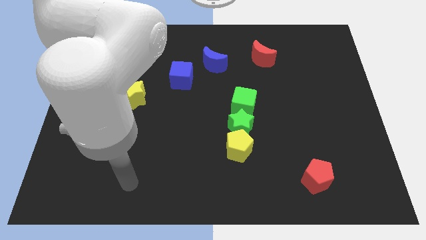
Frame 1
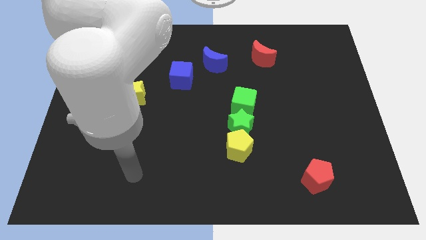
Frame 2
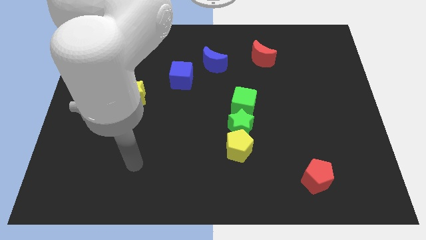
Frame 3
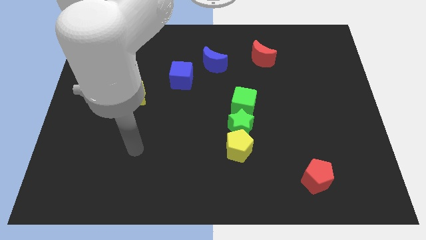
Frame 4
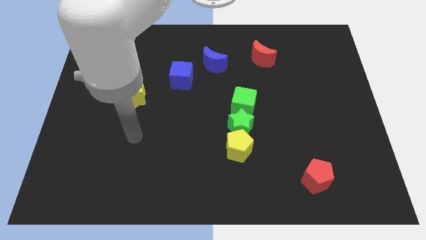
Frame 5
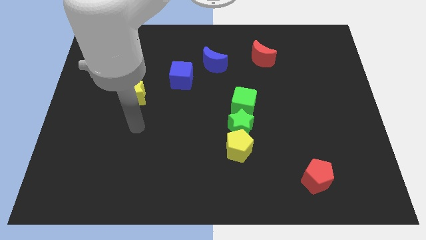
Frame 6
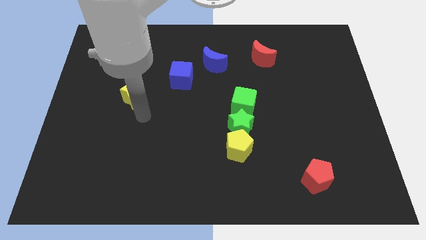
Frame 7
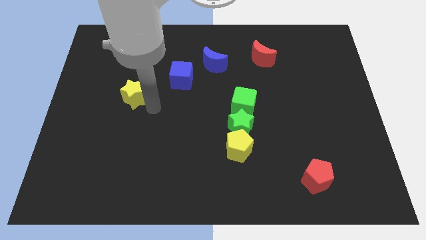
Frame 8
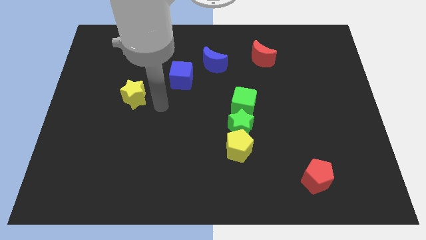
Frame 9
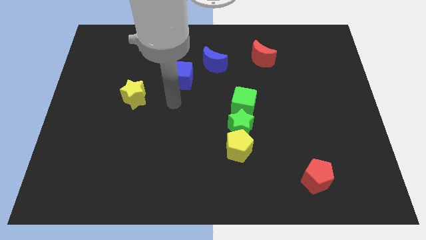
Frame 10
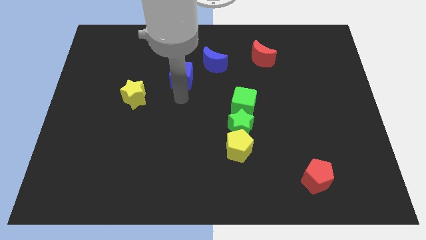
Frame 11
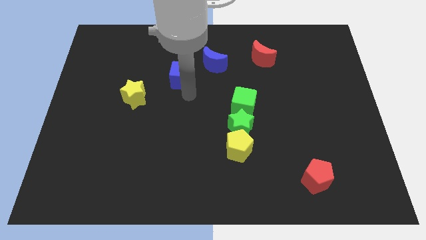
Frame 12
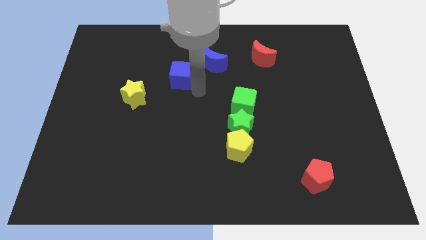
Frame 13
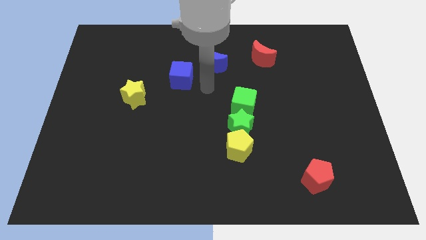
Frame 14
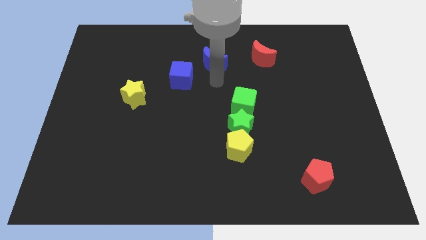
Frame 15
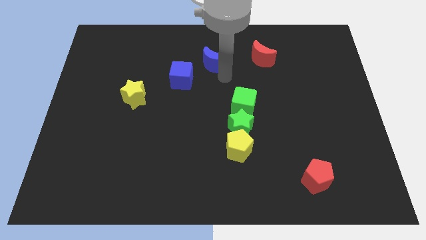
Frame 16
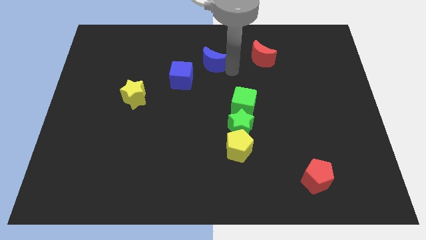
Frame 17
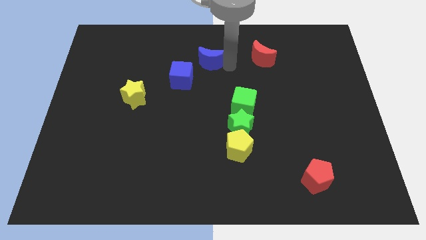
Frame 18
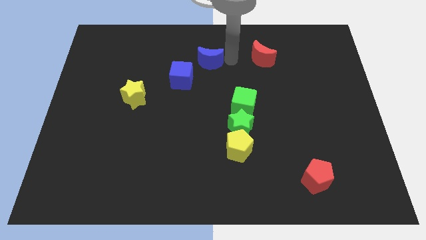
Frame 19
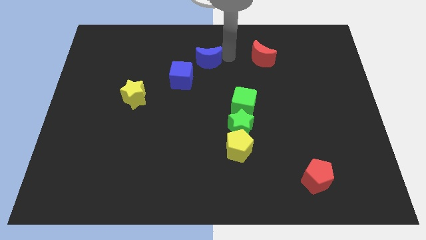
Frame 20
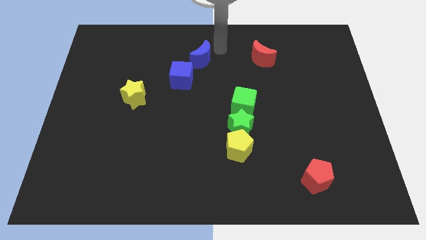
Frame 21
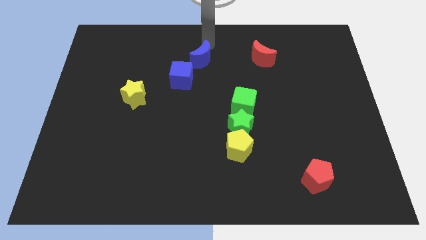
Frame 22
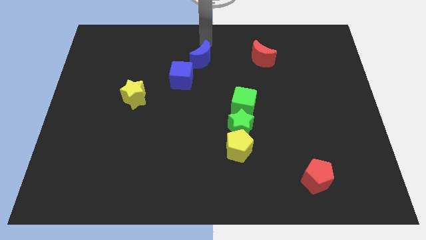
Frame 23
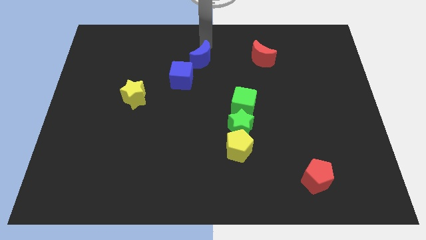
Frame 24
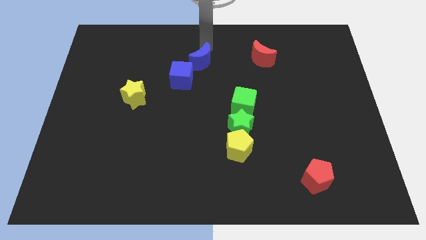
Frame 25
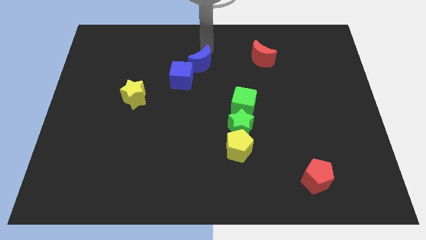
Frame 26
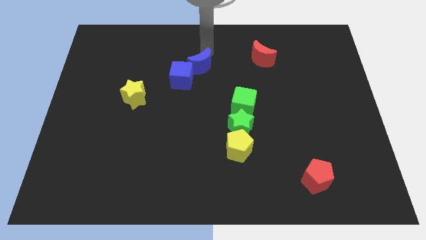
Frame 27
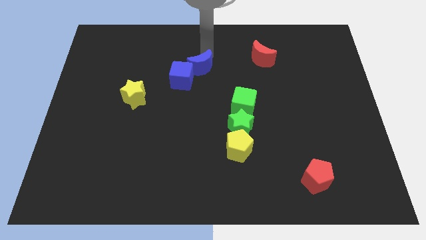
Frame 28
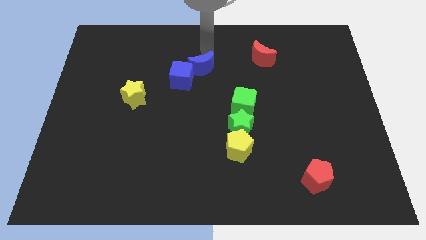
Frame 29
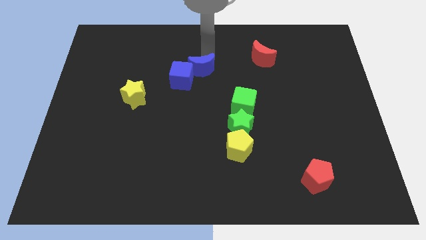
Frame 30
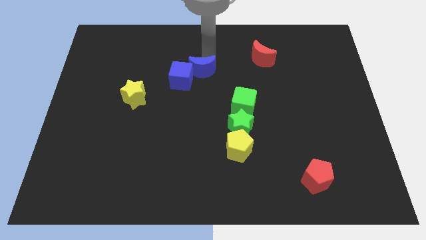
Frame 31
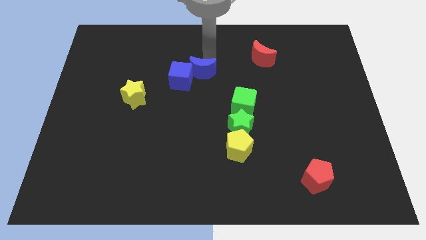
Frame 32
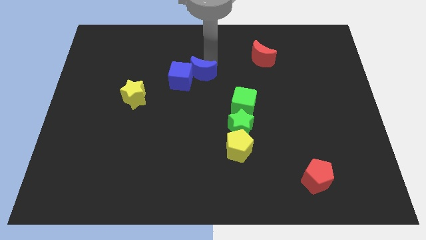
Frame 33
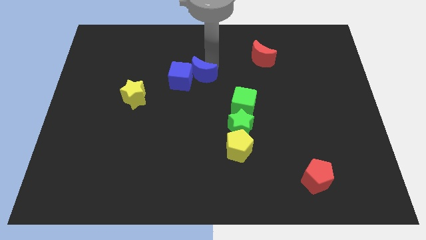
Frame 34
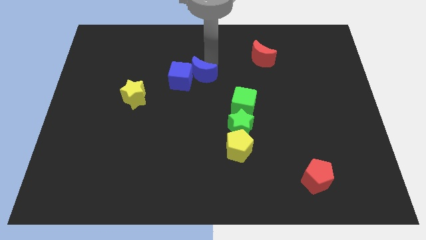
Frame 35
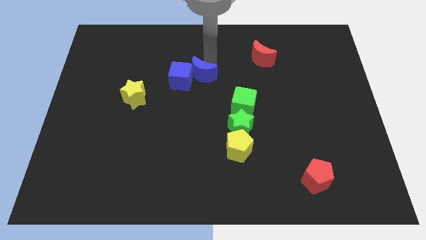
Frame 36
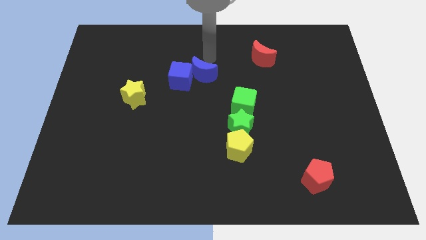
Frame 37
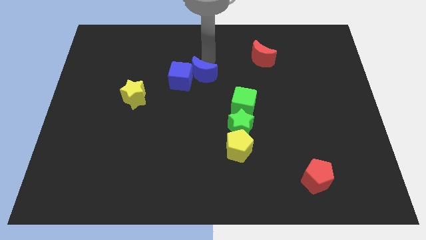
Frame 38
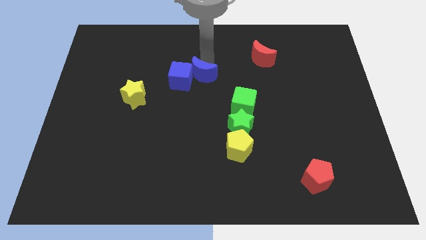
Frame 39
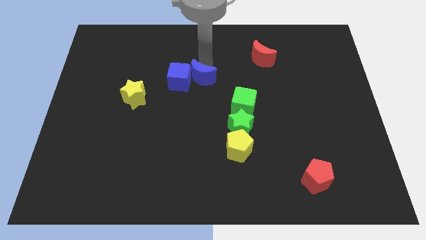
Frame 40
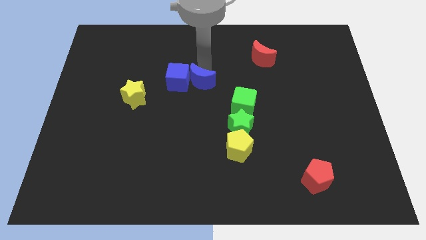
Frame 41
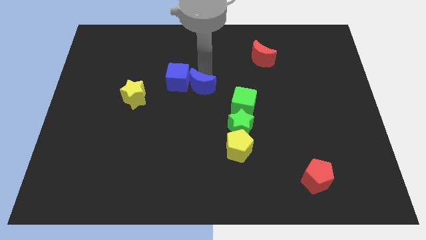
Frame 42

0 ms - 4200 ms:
move the blue moon downwards and then left a little bit

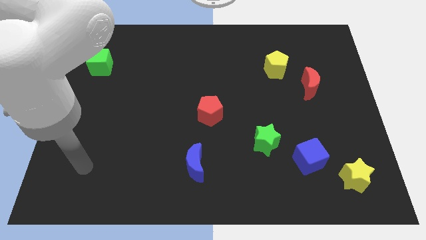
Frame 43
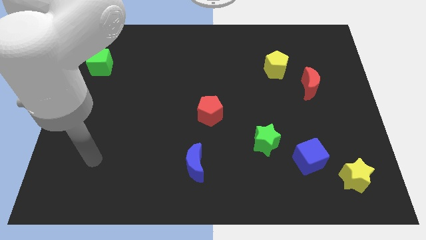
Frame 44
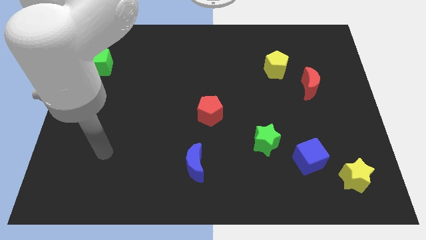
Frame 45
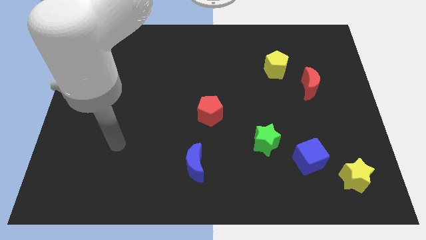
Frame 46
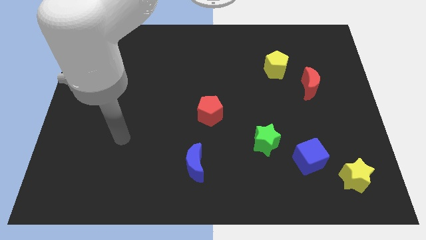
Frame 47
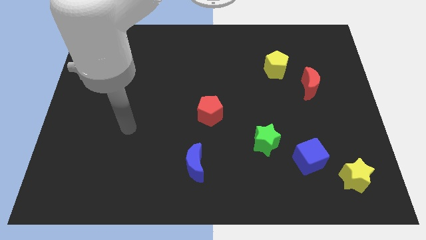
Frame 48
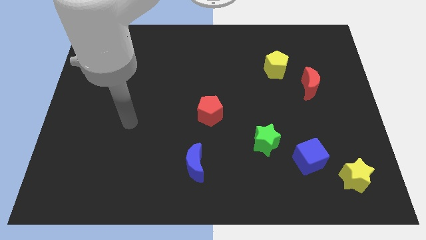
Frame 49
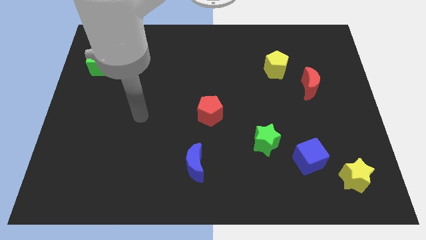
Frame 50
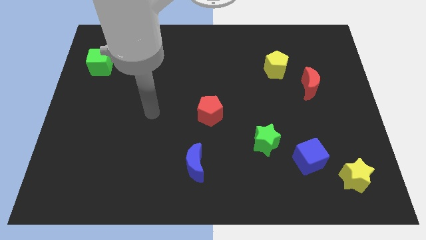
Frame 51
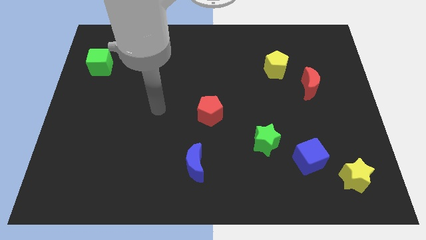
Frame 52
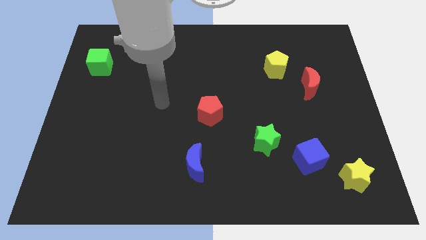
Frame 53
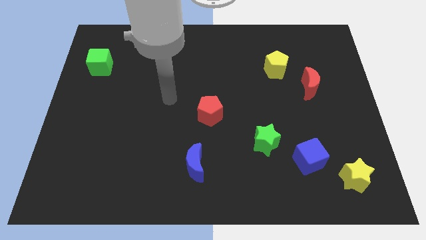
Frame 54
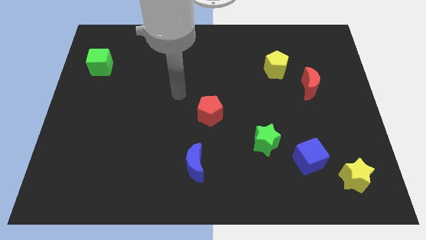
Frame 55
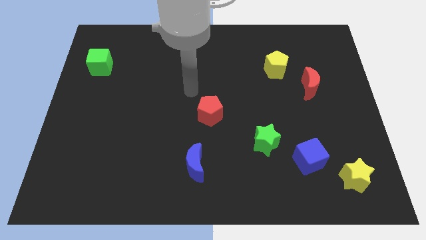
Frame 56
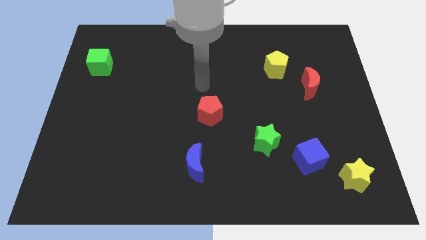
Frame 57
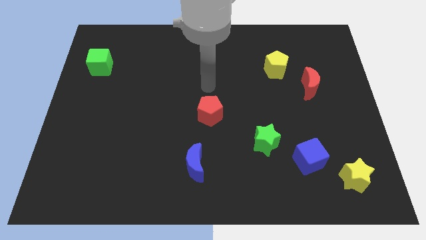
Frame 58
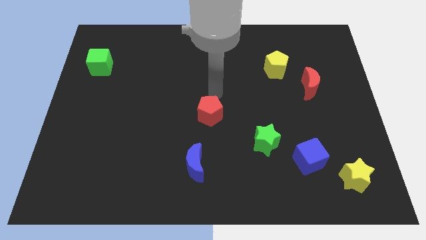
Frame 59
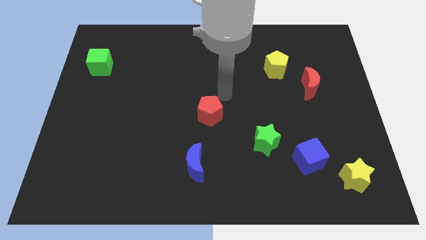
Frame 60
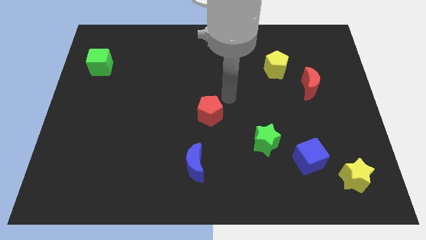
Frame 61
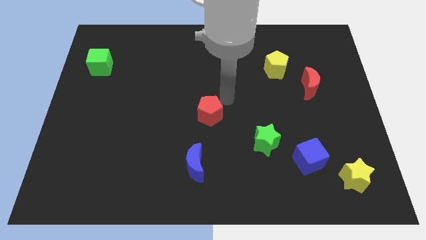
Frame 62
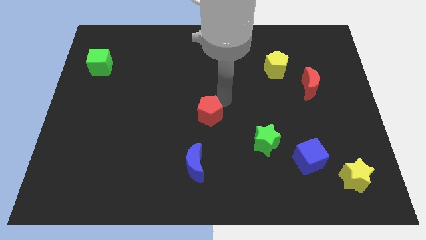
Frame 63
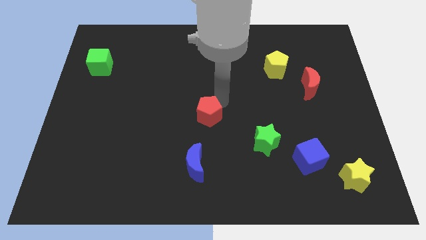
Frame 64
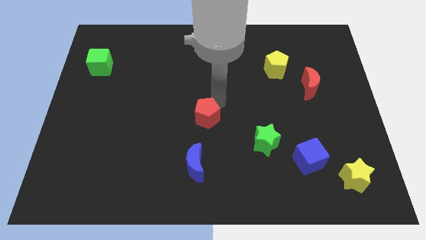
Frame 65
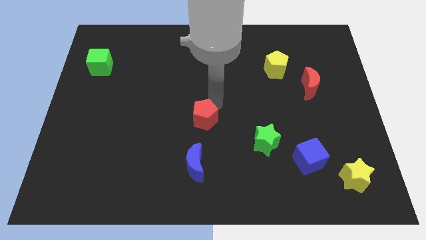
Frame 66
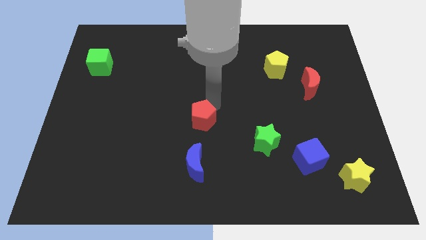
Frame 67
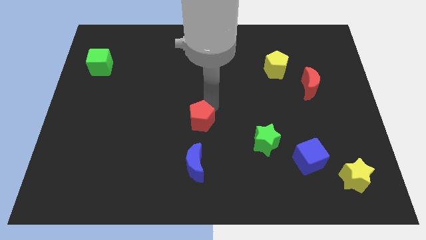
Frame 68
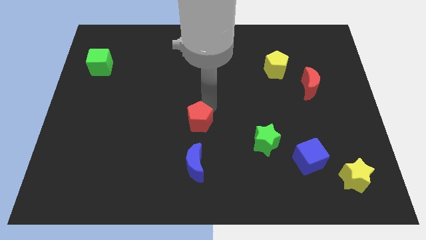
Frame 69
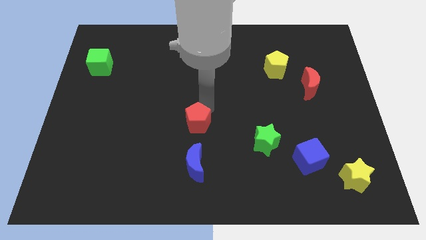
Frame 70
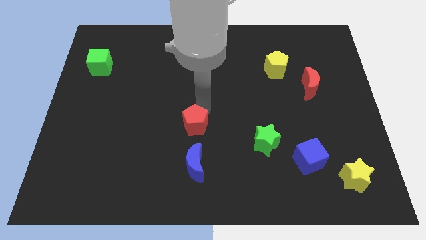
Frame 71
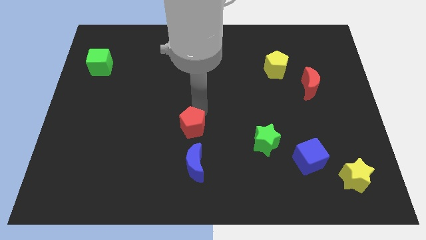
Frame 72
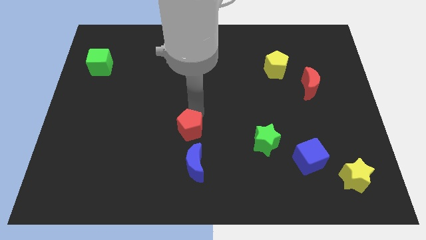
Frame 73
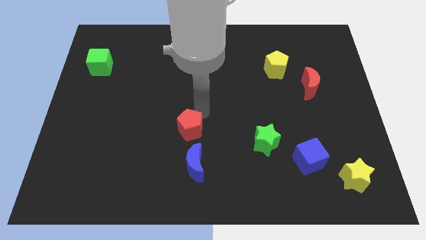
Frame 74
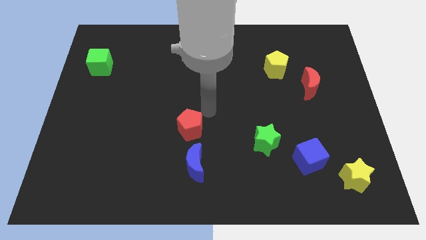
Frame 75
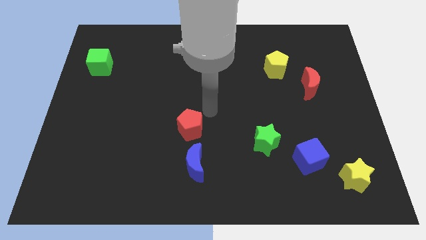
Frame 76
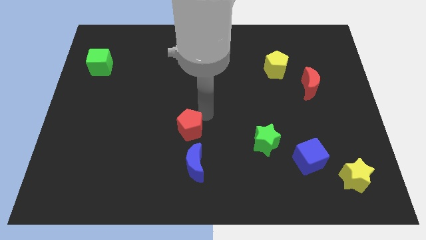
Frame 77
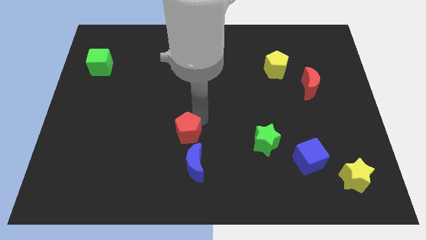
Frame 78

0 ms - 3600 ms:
move the red pentagon slightly downwards and left diagonally

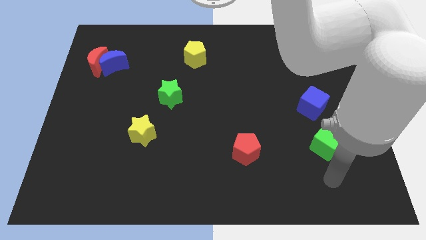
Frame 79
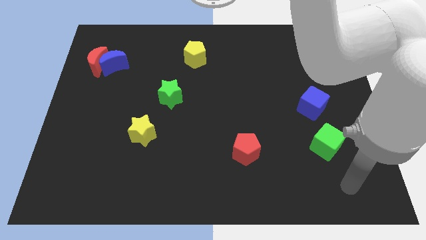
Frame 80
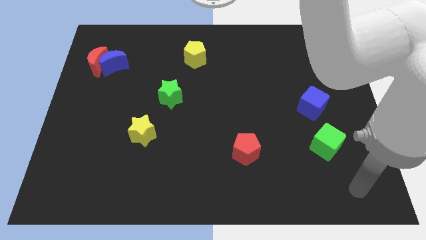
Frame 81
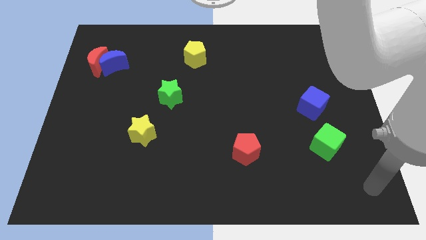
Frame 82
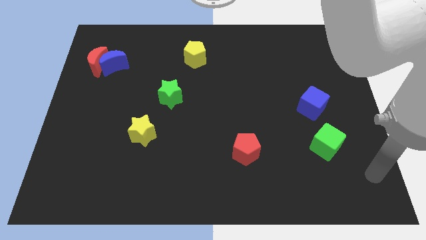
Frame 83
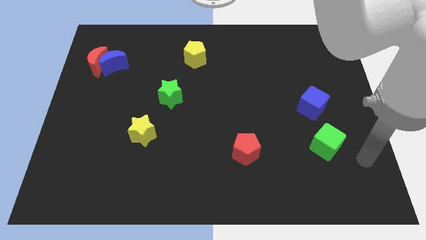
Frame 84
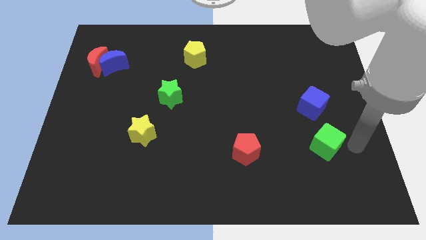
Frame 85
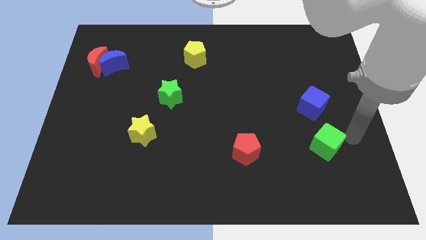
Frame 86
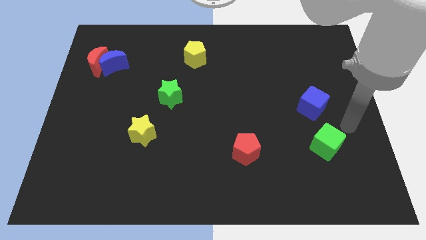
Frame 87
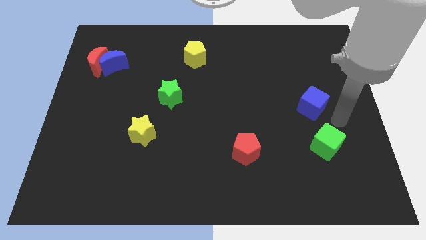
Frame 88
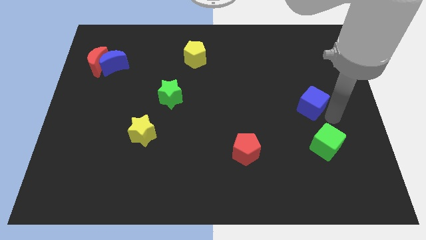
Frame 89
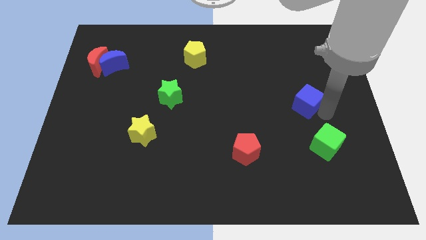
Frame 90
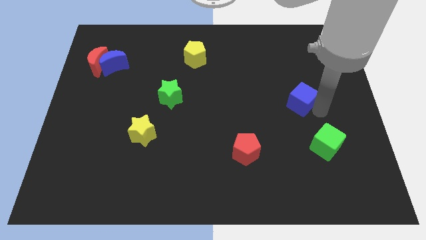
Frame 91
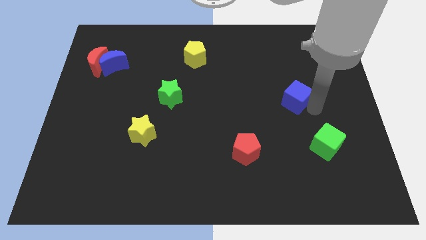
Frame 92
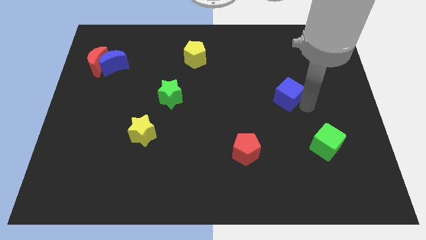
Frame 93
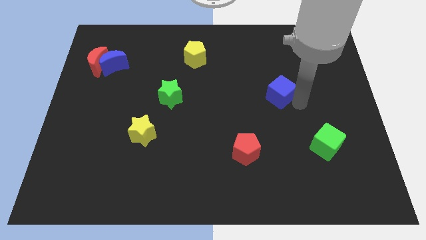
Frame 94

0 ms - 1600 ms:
slide the blue cube up and then left a little bit
